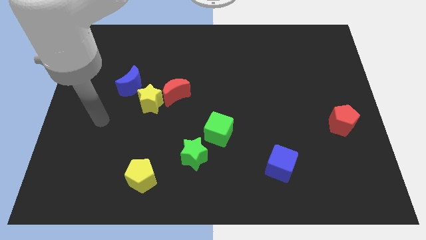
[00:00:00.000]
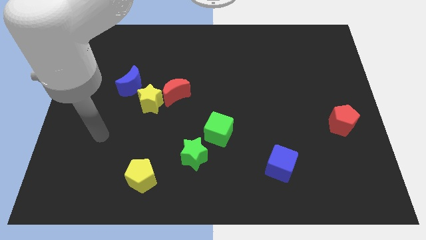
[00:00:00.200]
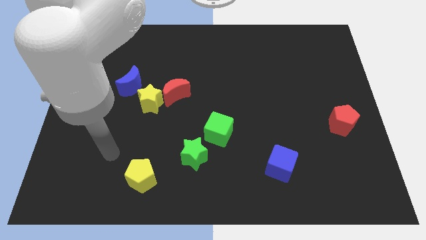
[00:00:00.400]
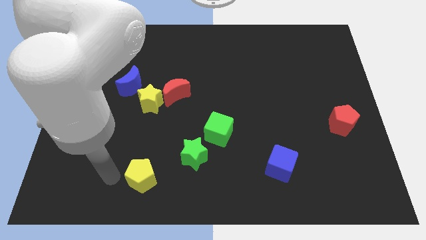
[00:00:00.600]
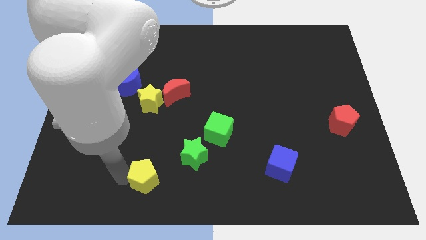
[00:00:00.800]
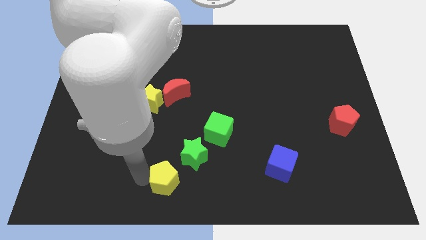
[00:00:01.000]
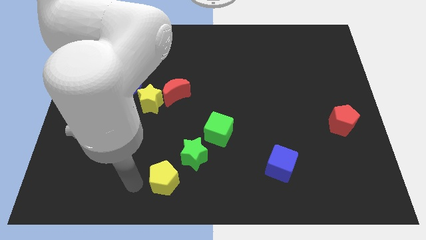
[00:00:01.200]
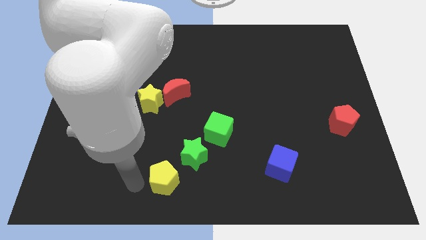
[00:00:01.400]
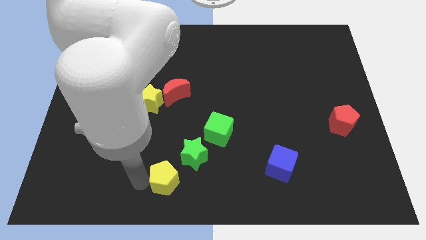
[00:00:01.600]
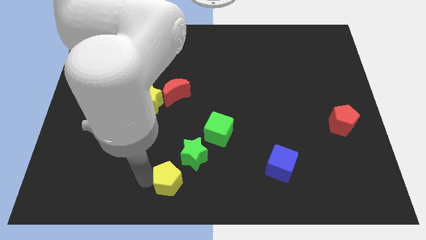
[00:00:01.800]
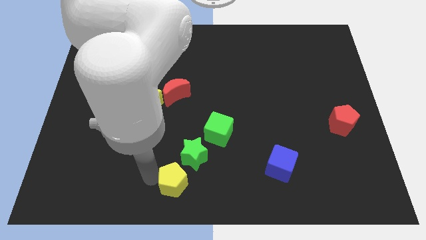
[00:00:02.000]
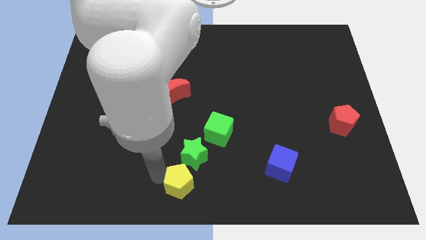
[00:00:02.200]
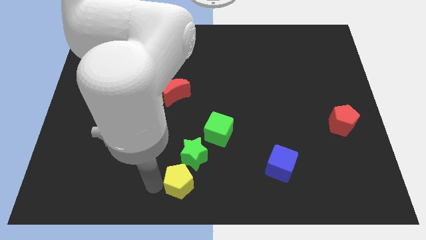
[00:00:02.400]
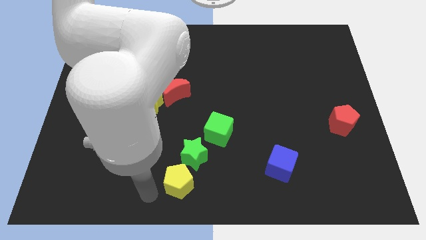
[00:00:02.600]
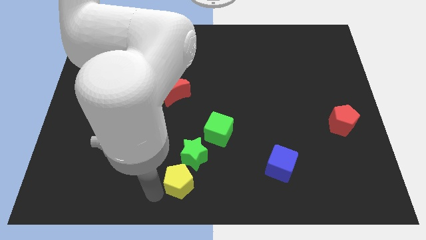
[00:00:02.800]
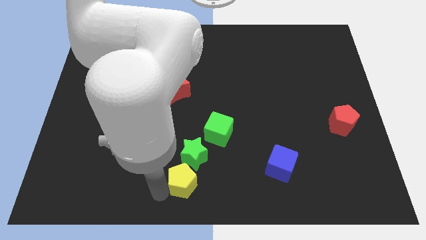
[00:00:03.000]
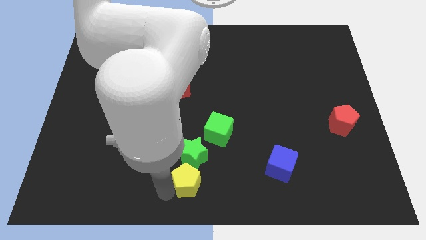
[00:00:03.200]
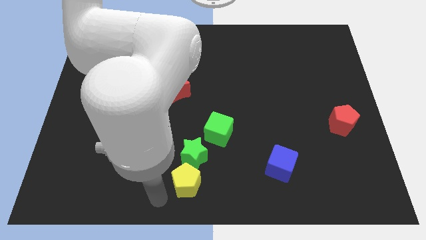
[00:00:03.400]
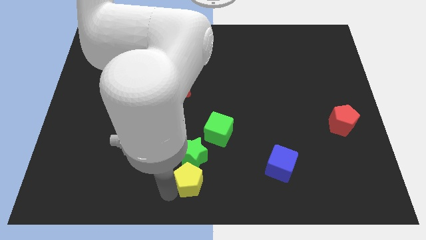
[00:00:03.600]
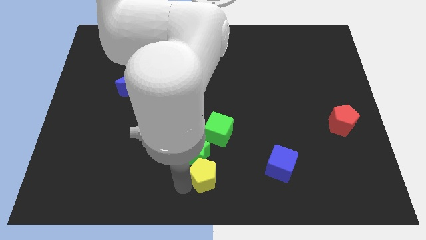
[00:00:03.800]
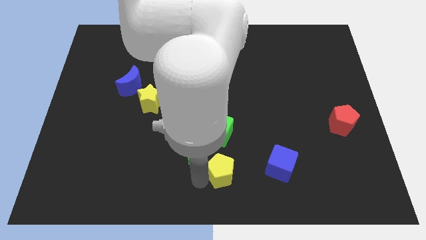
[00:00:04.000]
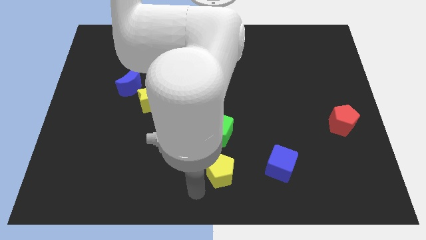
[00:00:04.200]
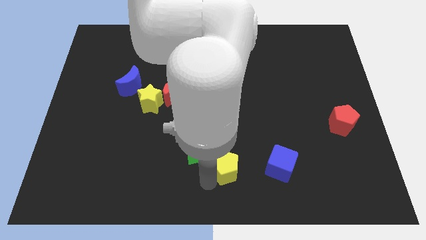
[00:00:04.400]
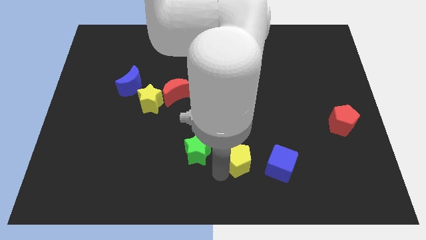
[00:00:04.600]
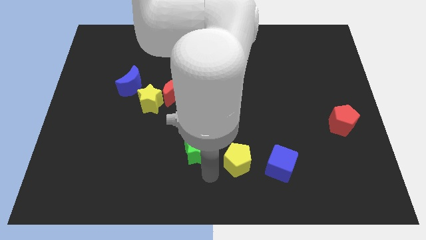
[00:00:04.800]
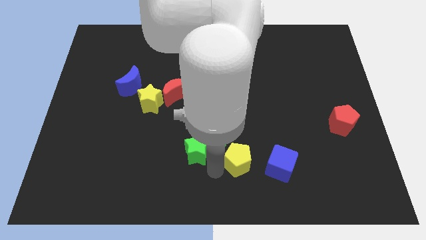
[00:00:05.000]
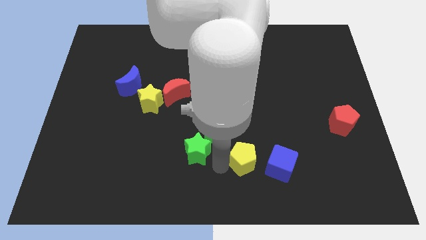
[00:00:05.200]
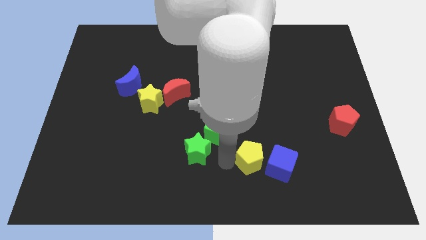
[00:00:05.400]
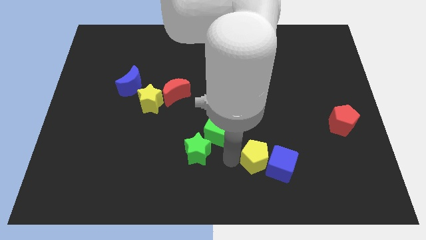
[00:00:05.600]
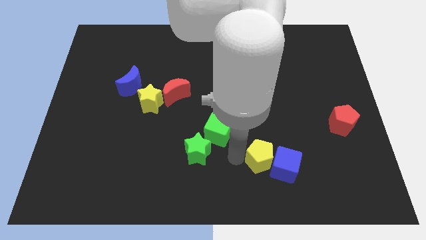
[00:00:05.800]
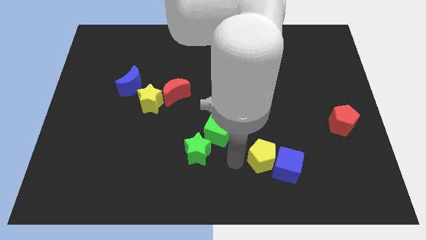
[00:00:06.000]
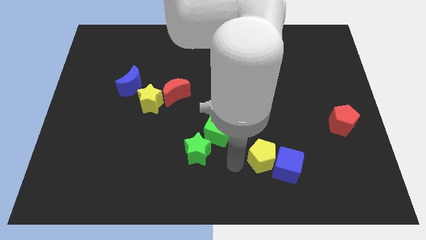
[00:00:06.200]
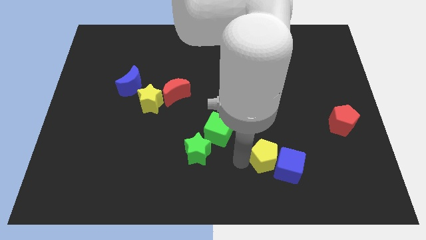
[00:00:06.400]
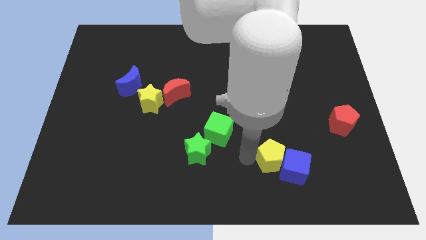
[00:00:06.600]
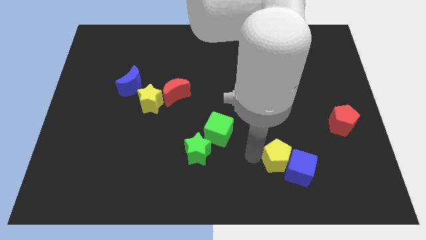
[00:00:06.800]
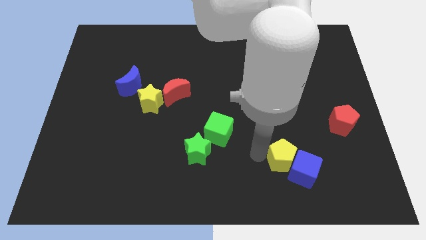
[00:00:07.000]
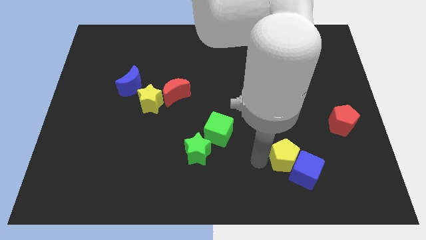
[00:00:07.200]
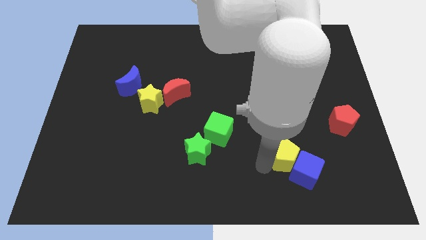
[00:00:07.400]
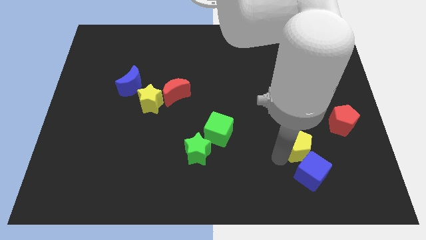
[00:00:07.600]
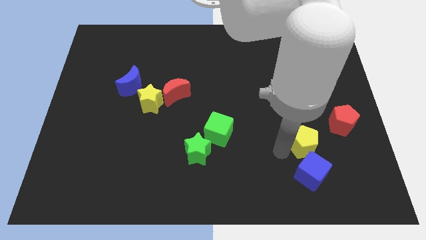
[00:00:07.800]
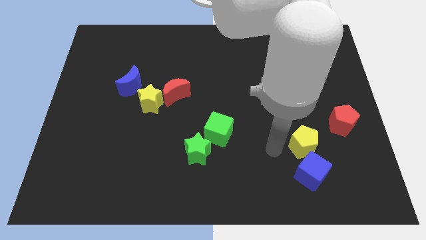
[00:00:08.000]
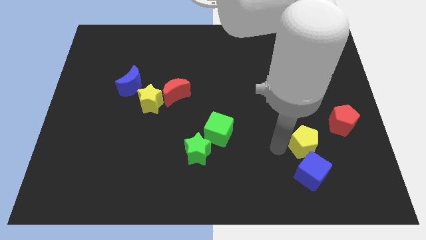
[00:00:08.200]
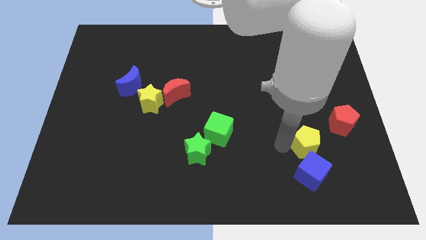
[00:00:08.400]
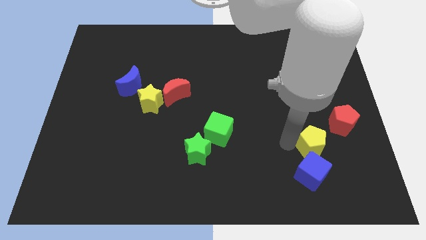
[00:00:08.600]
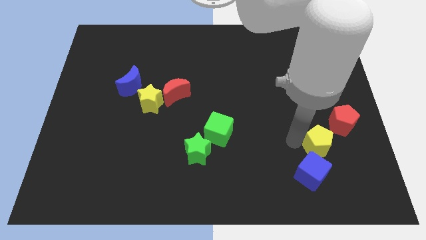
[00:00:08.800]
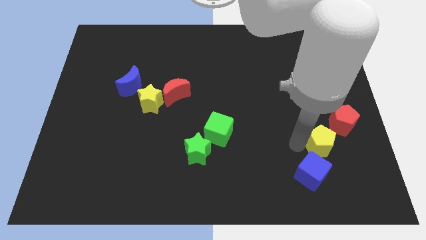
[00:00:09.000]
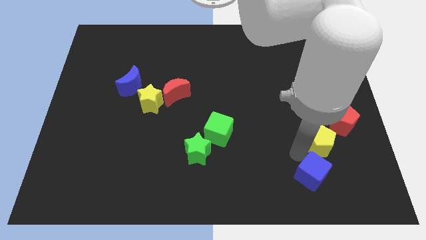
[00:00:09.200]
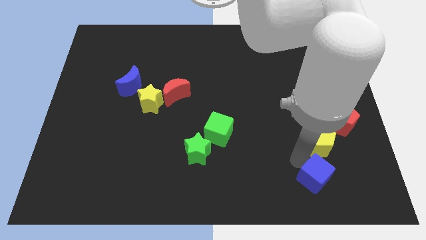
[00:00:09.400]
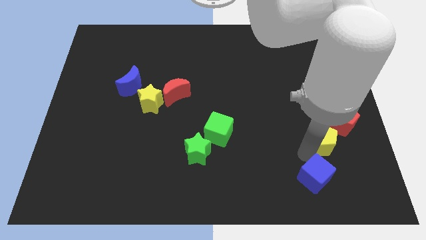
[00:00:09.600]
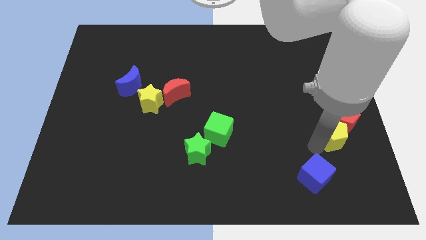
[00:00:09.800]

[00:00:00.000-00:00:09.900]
put the yellow pentagon to the red pentagon

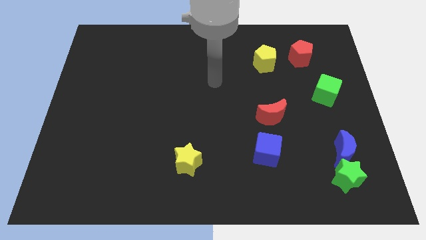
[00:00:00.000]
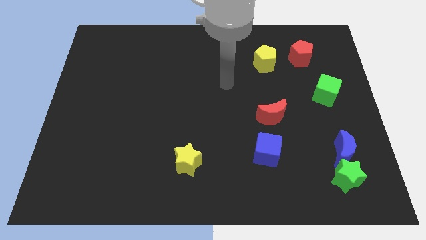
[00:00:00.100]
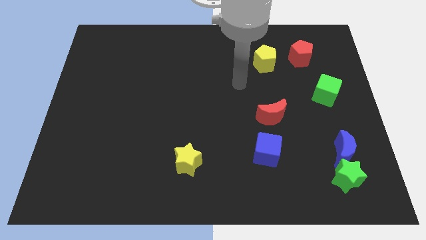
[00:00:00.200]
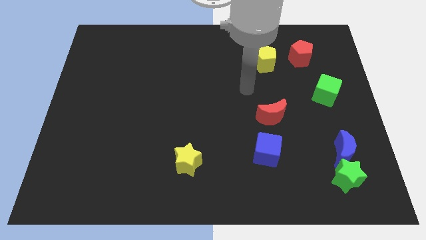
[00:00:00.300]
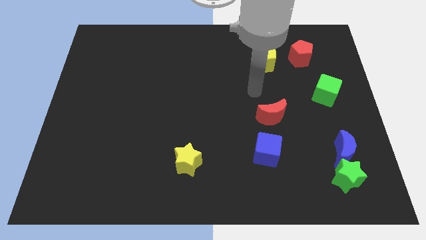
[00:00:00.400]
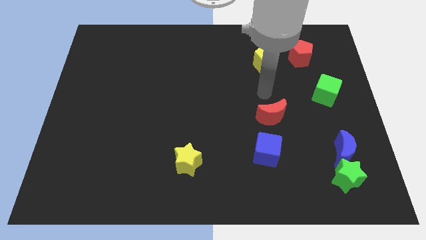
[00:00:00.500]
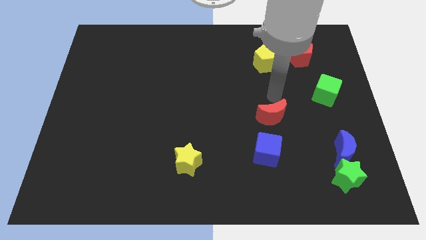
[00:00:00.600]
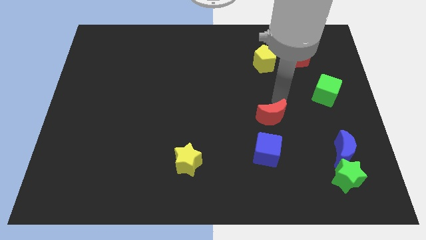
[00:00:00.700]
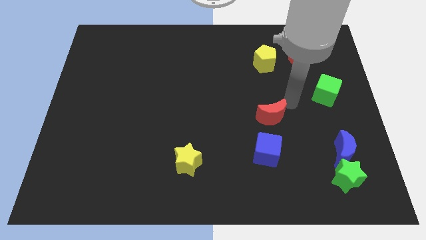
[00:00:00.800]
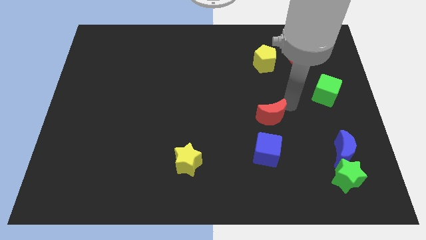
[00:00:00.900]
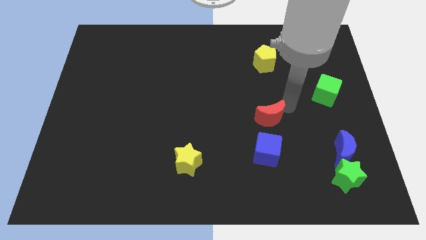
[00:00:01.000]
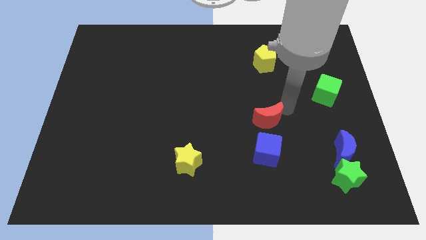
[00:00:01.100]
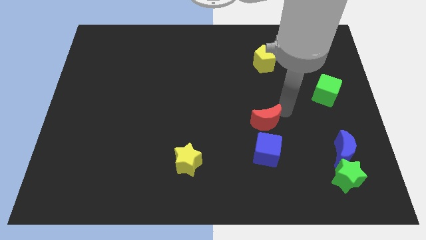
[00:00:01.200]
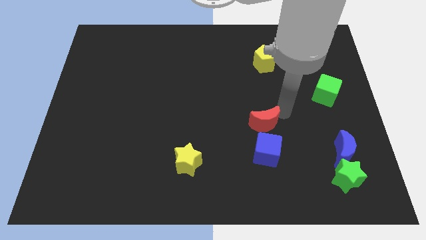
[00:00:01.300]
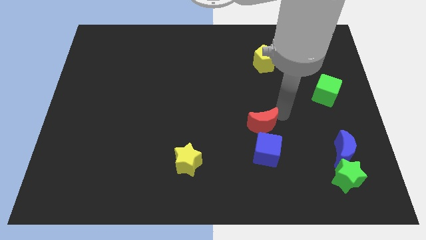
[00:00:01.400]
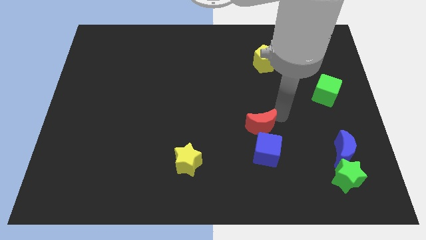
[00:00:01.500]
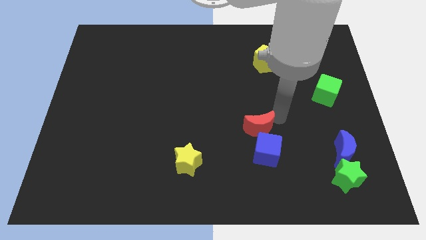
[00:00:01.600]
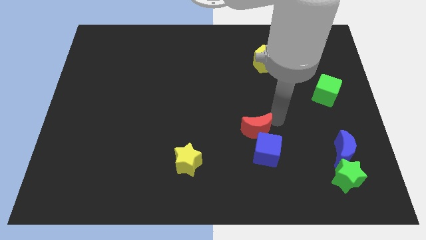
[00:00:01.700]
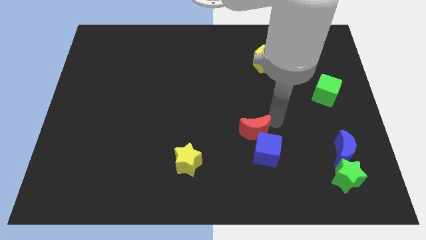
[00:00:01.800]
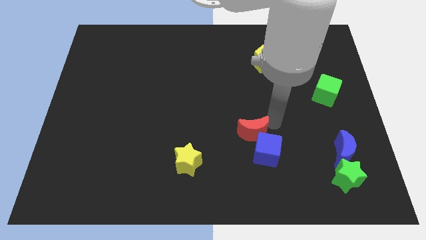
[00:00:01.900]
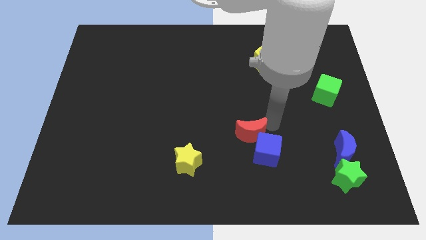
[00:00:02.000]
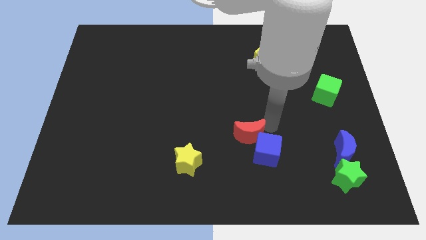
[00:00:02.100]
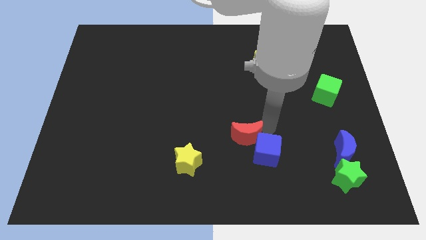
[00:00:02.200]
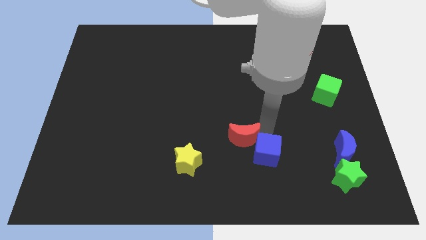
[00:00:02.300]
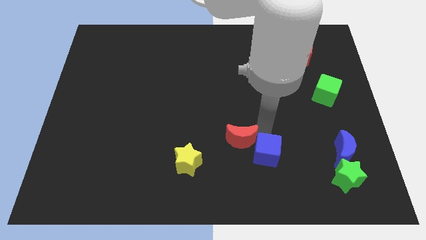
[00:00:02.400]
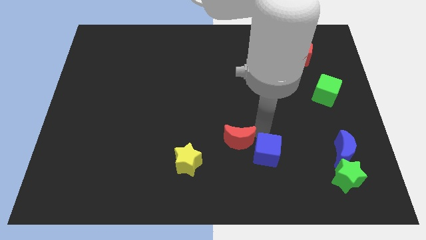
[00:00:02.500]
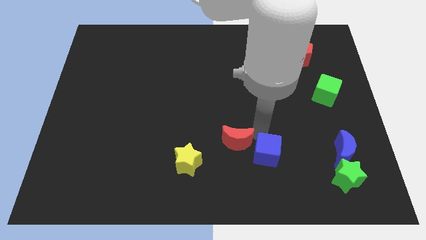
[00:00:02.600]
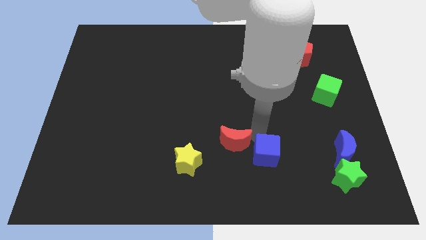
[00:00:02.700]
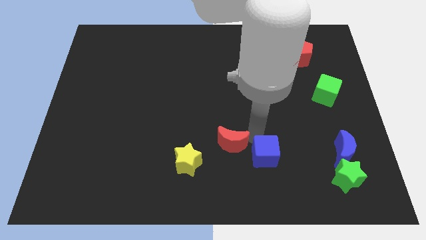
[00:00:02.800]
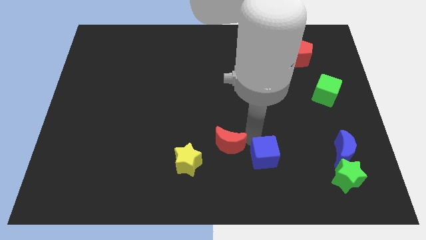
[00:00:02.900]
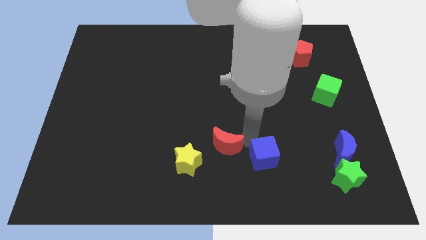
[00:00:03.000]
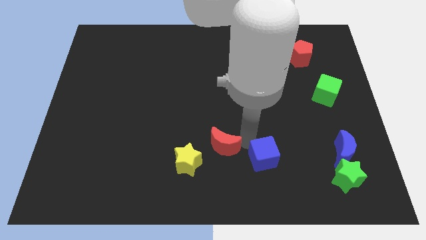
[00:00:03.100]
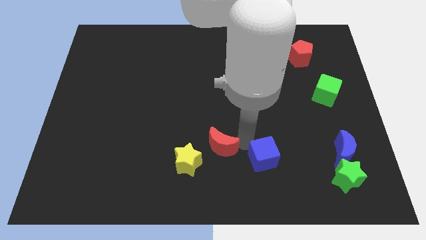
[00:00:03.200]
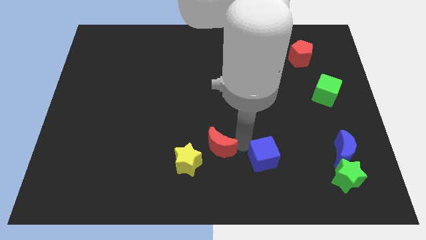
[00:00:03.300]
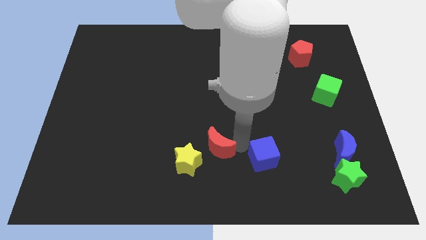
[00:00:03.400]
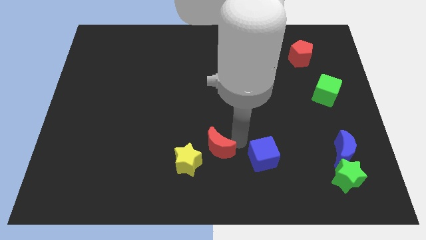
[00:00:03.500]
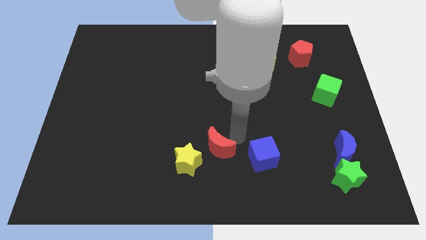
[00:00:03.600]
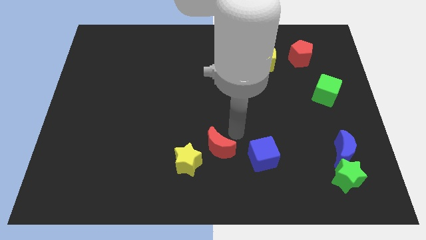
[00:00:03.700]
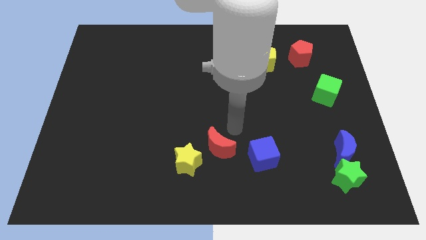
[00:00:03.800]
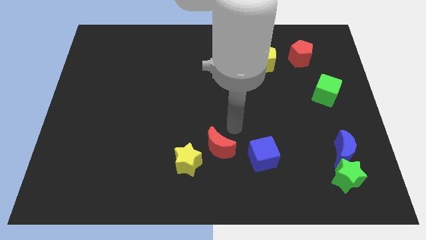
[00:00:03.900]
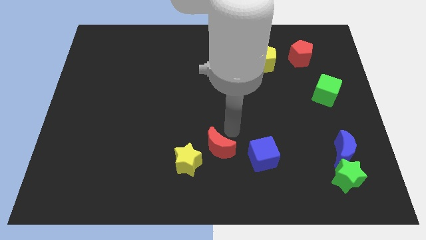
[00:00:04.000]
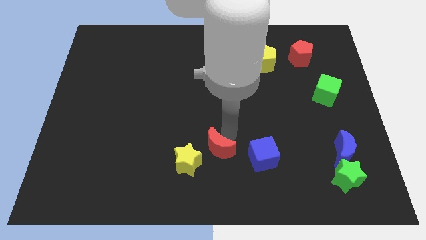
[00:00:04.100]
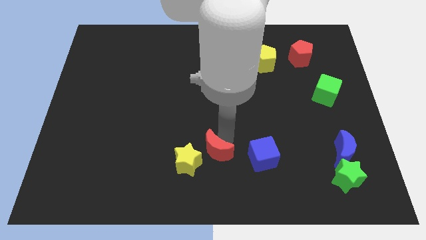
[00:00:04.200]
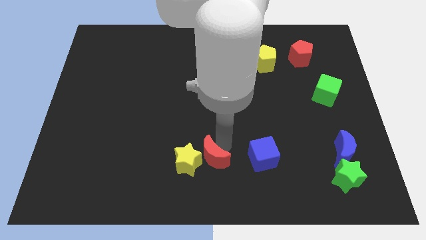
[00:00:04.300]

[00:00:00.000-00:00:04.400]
push the red moon close to the yellow star
